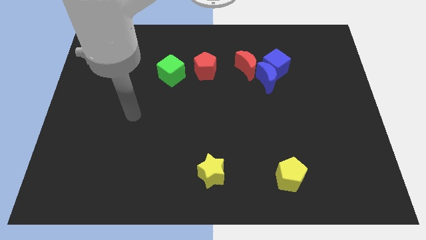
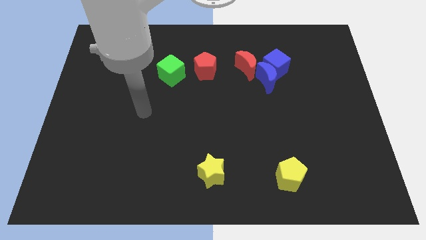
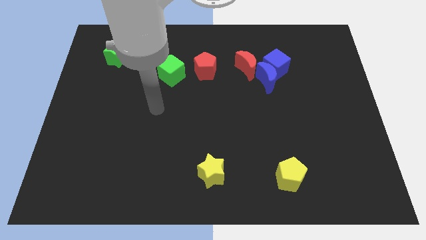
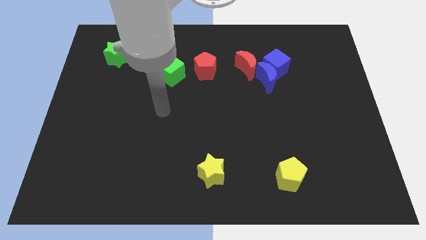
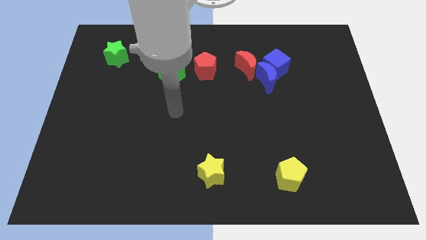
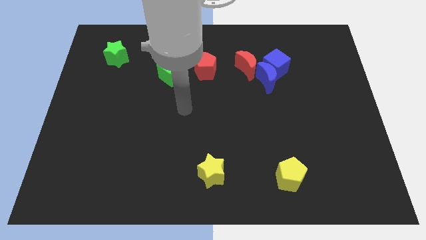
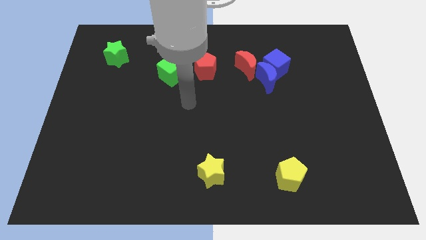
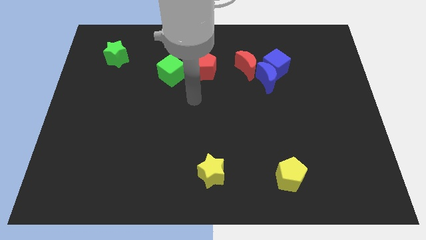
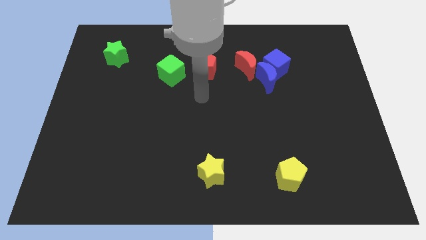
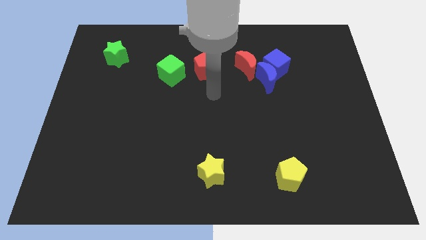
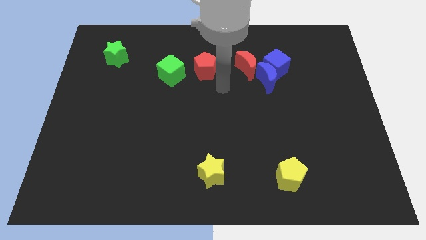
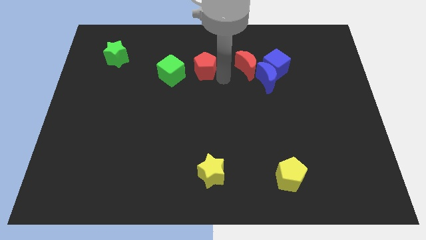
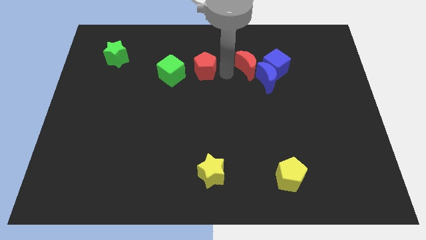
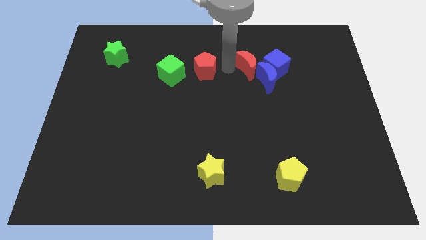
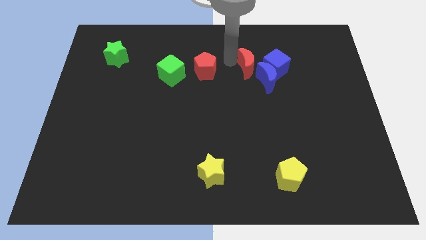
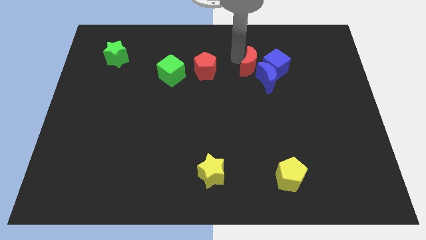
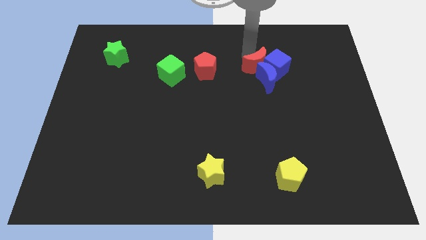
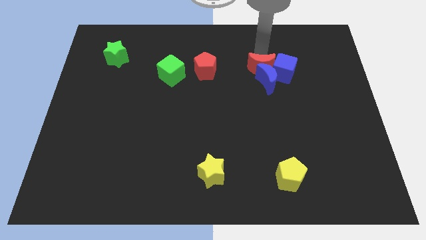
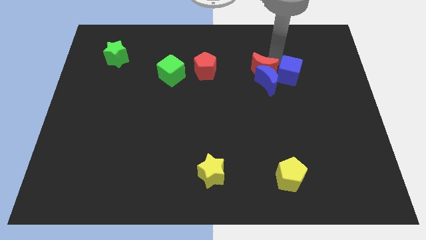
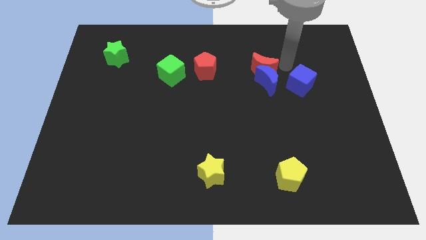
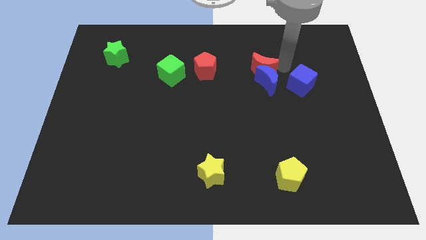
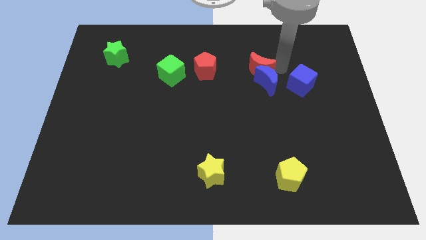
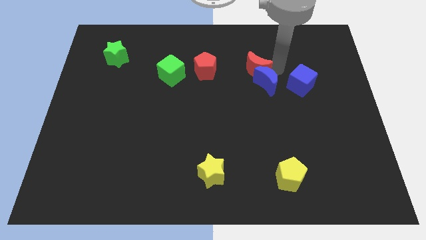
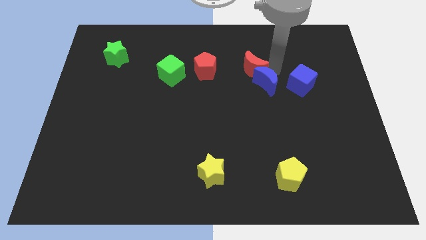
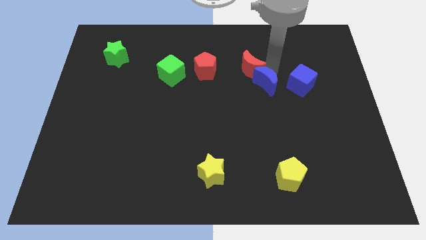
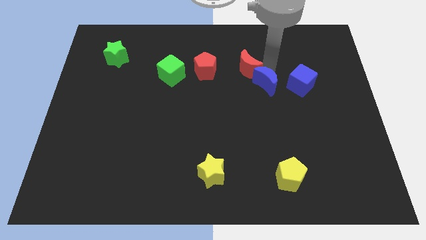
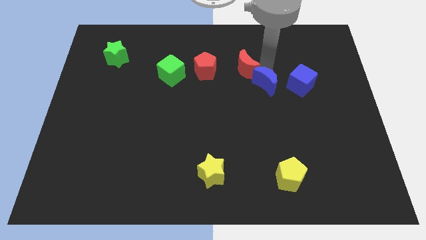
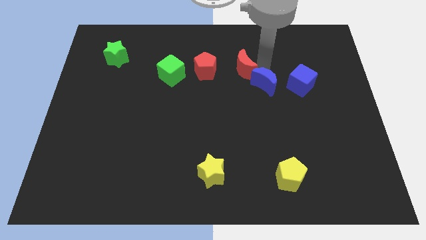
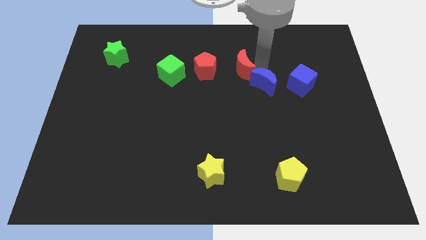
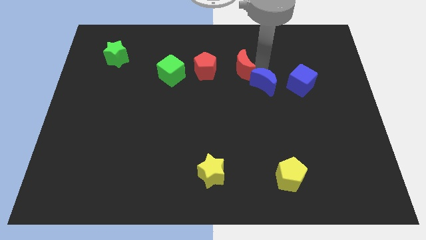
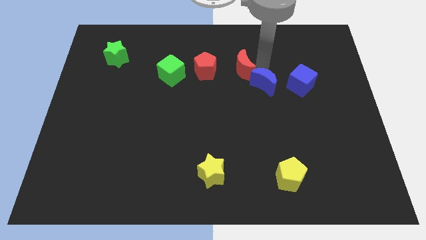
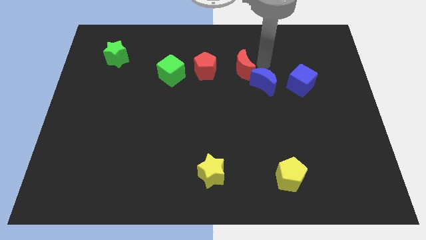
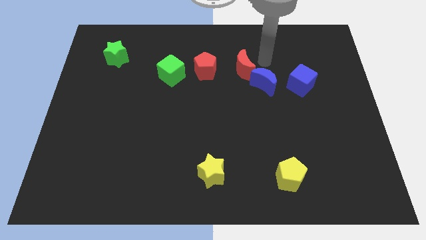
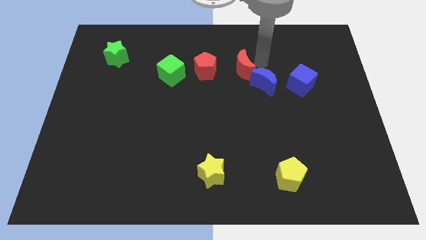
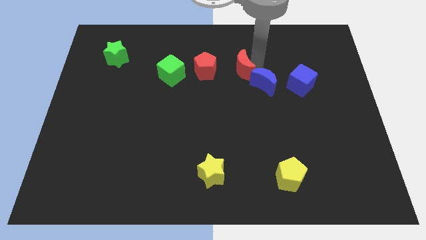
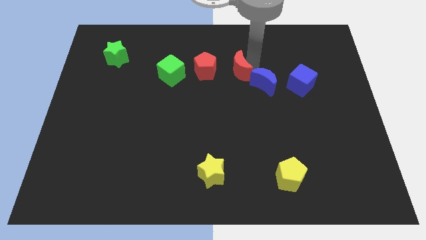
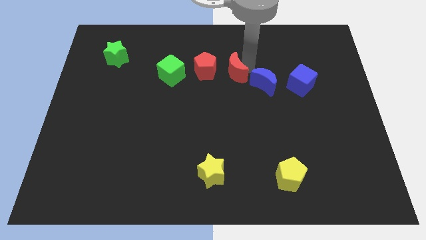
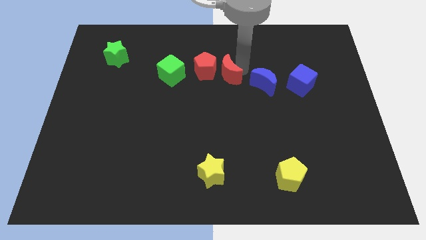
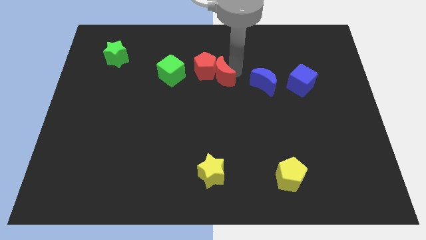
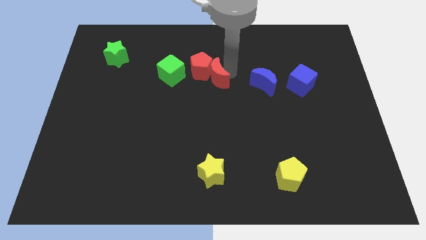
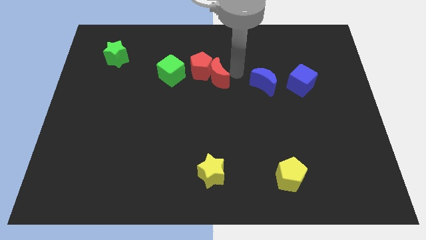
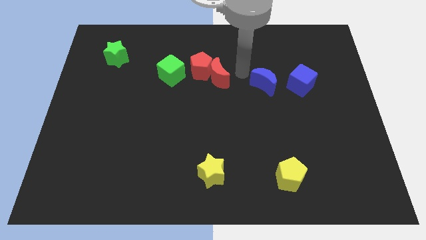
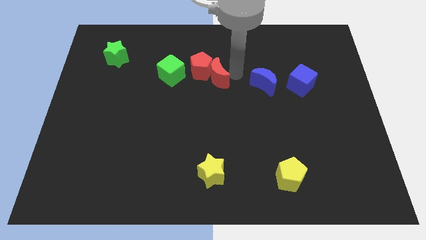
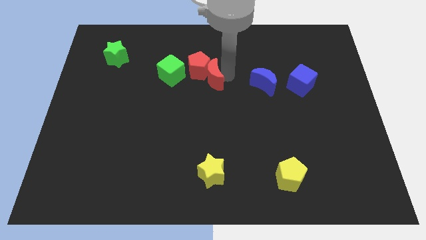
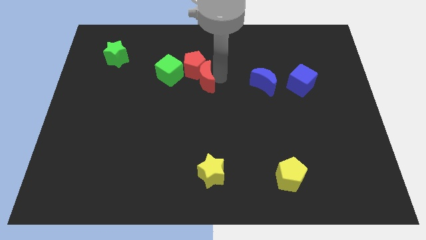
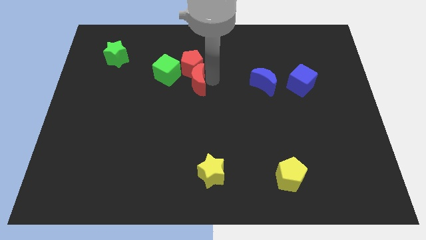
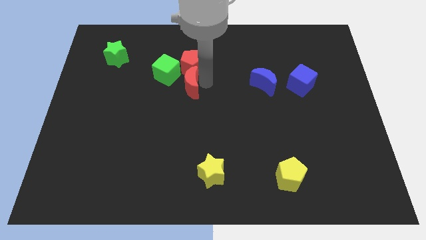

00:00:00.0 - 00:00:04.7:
move the red moon to the bottom left side of the red pentagon

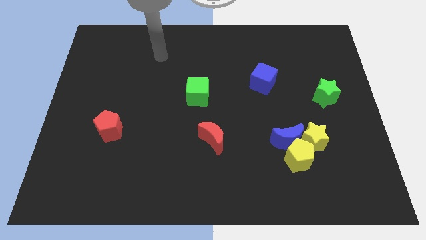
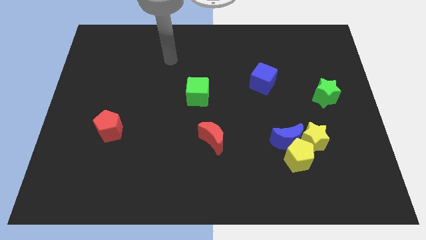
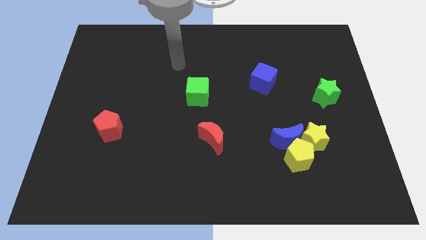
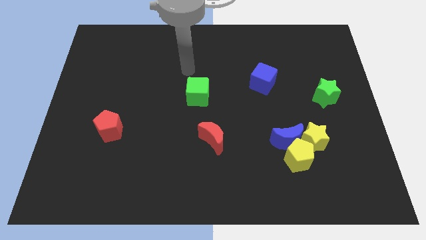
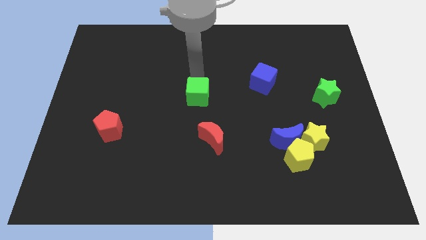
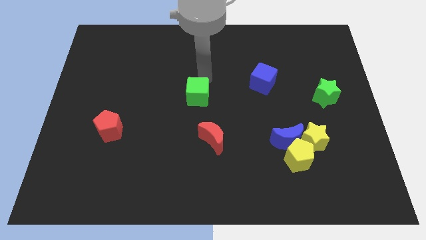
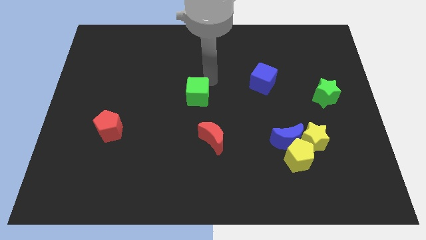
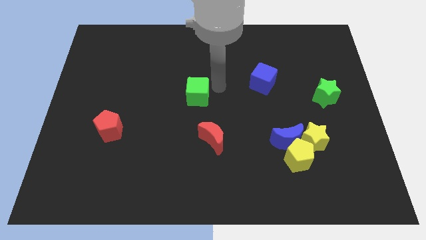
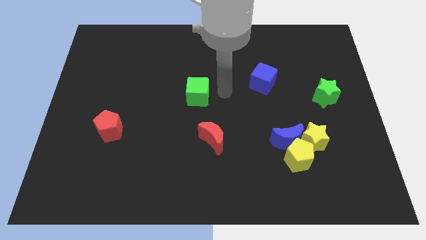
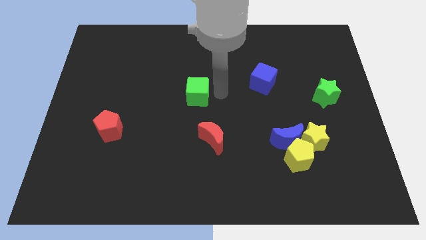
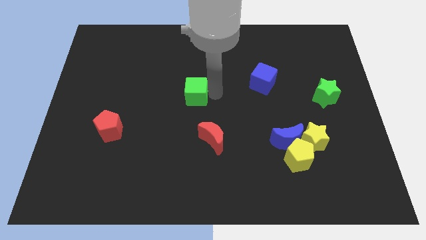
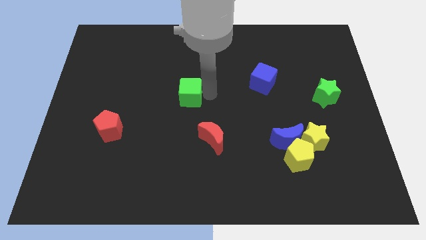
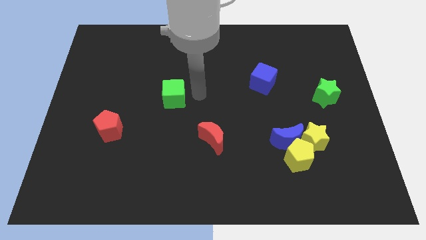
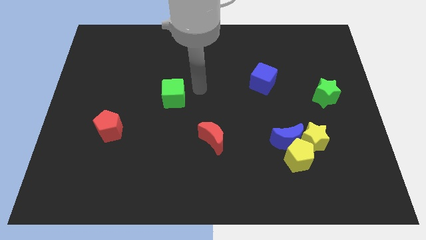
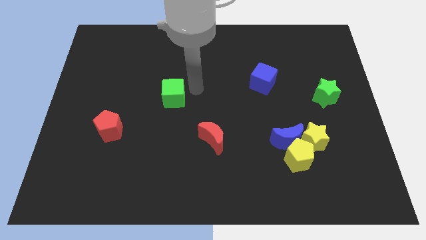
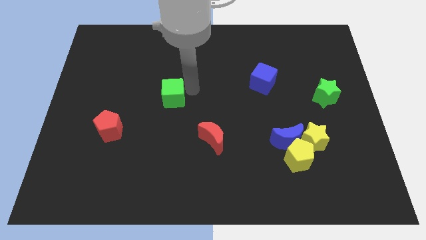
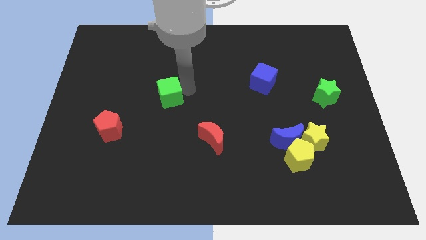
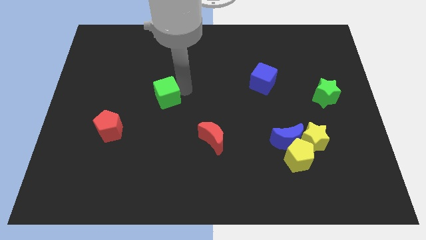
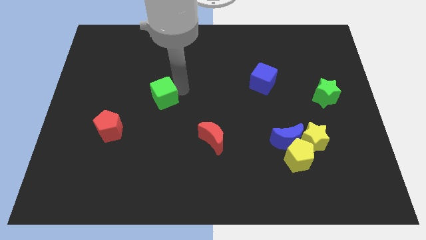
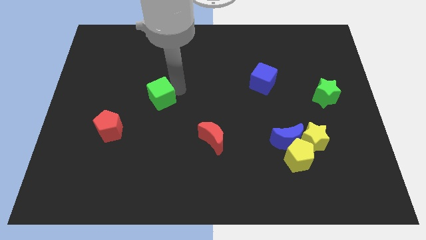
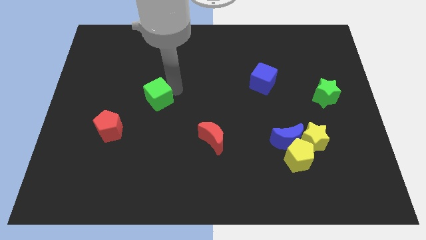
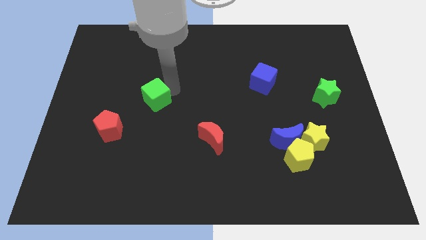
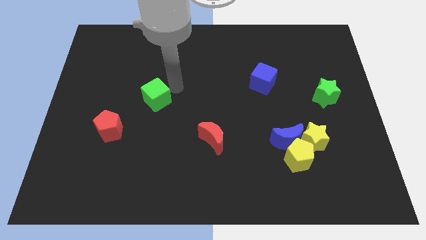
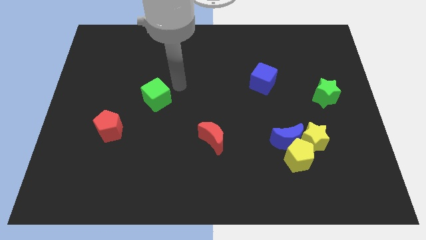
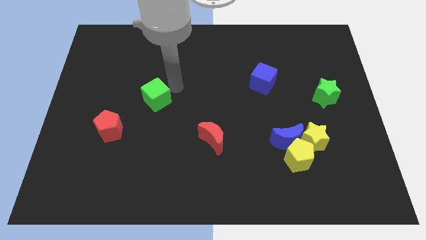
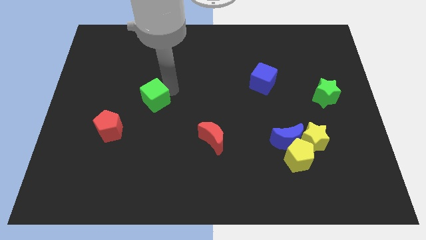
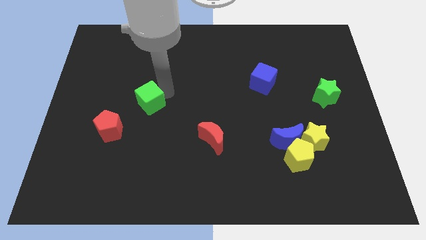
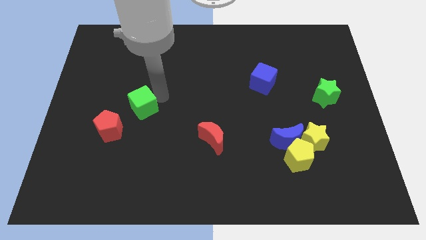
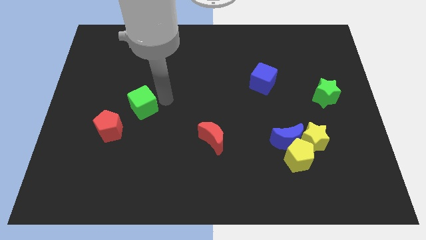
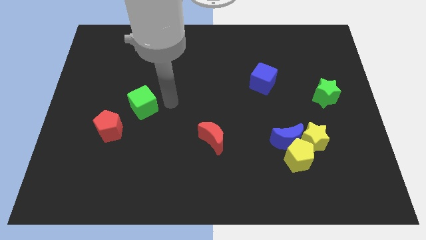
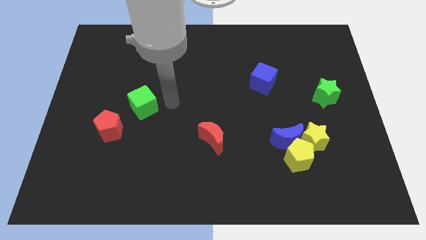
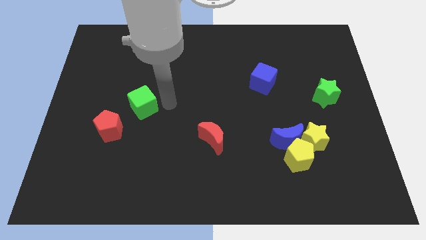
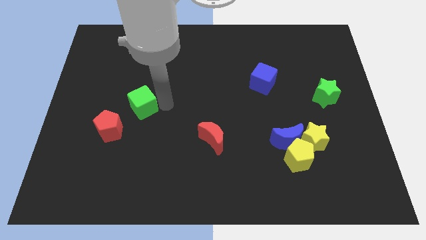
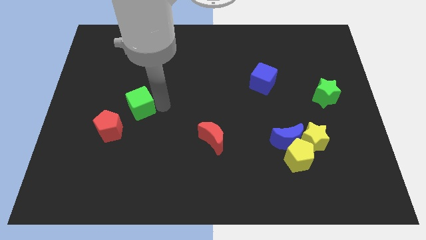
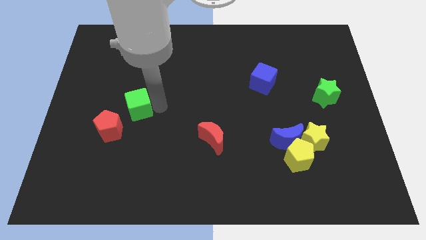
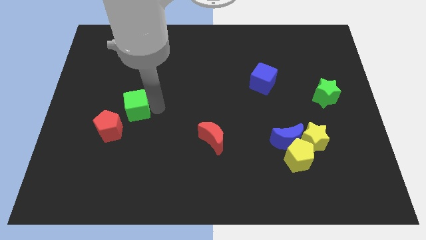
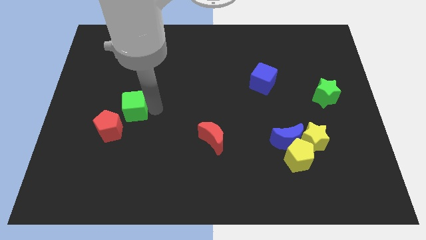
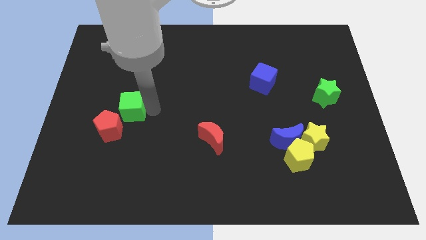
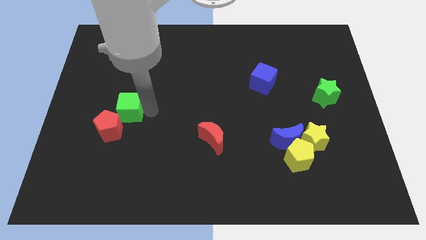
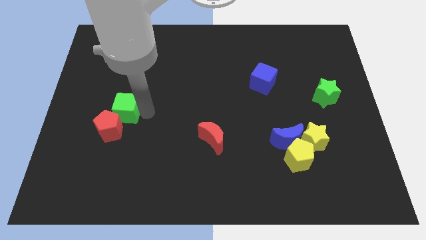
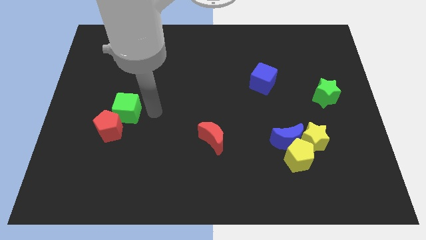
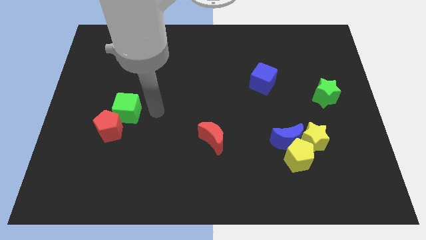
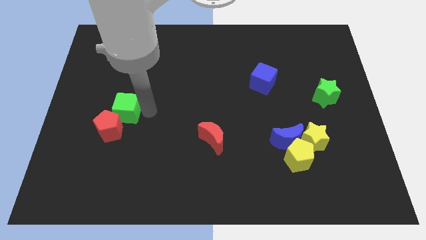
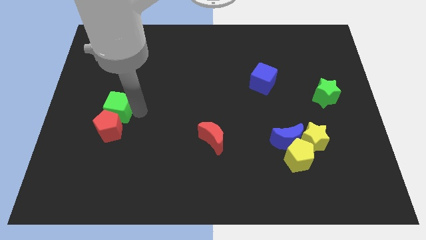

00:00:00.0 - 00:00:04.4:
slide the green cube to the top left side of the red pentagon
